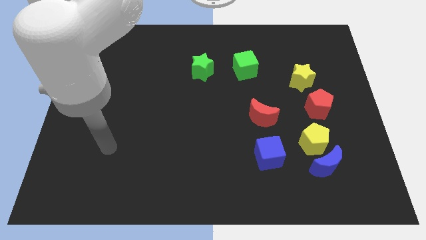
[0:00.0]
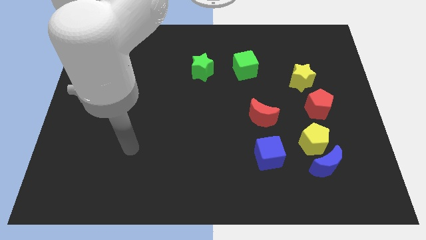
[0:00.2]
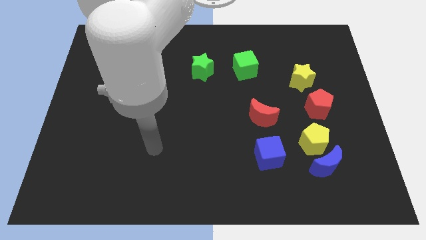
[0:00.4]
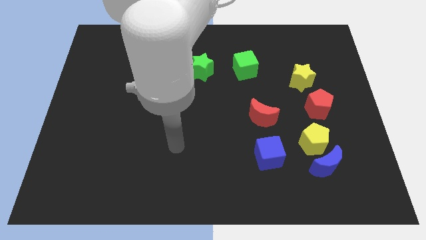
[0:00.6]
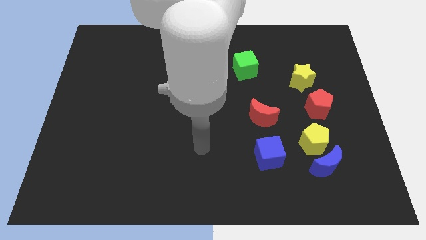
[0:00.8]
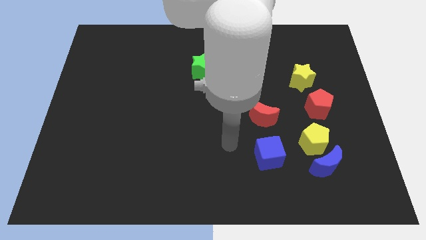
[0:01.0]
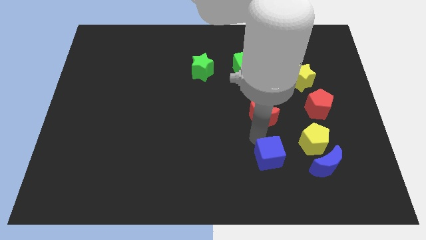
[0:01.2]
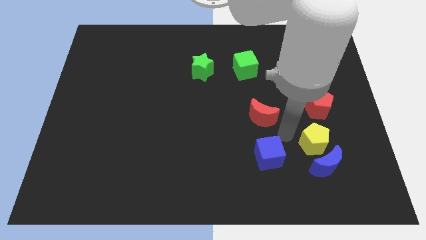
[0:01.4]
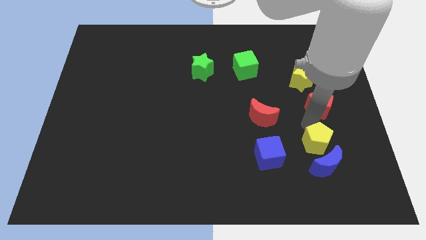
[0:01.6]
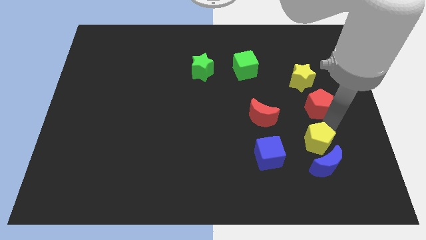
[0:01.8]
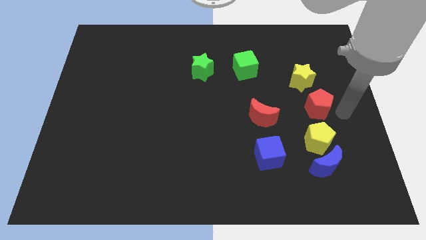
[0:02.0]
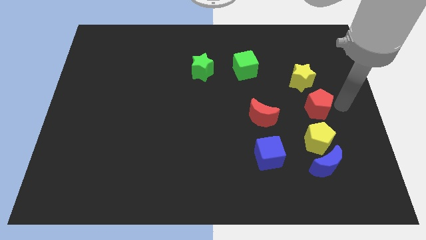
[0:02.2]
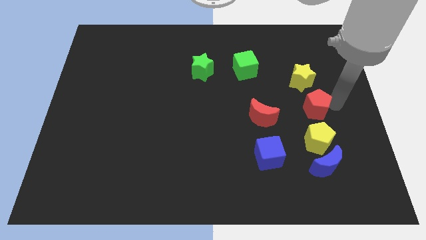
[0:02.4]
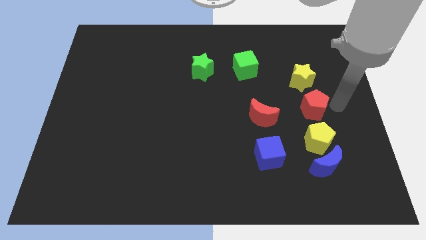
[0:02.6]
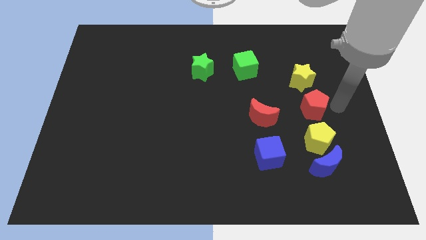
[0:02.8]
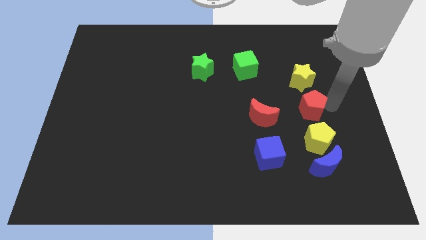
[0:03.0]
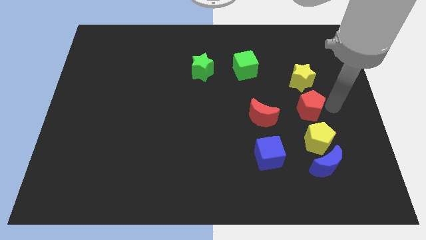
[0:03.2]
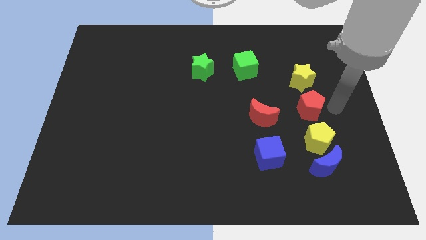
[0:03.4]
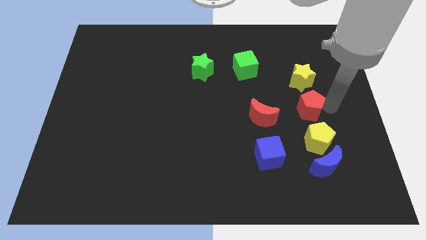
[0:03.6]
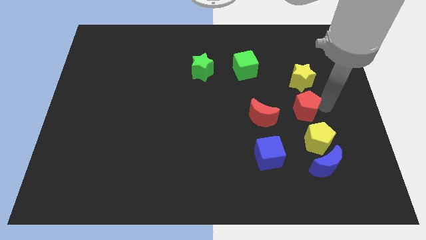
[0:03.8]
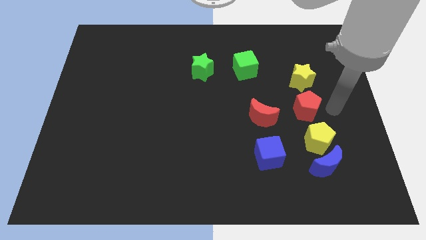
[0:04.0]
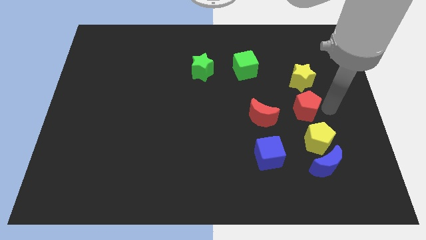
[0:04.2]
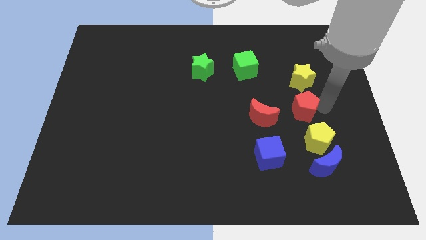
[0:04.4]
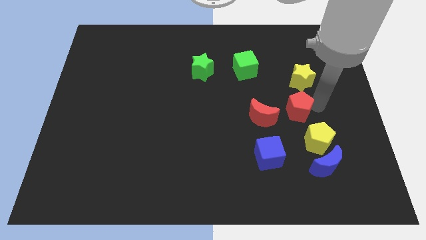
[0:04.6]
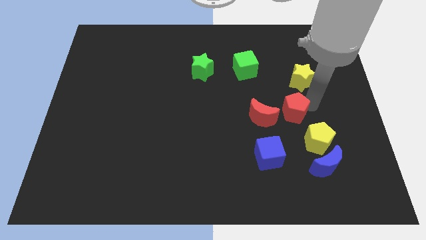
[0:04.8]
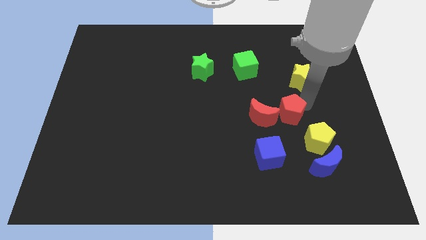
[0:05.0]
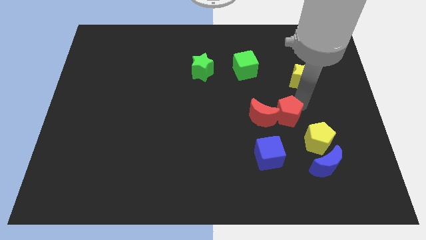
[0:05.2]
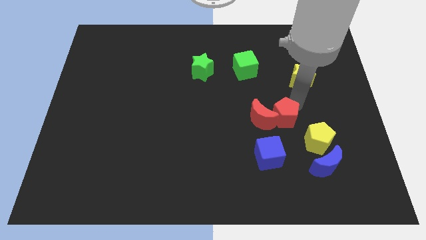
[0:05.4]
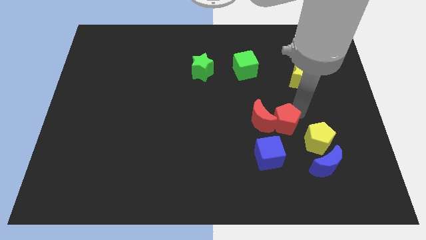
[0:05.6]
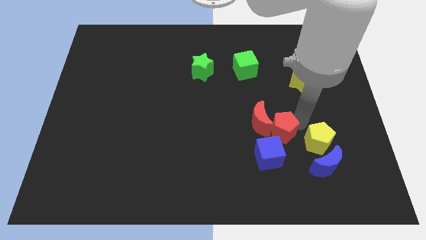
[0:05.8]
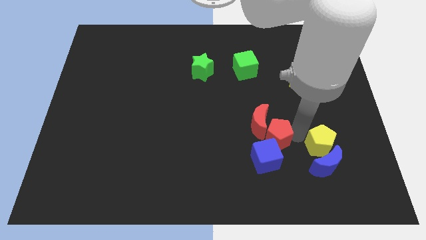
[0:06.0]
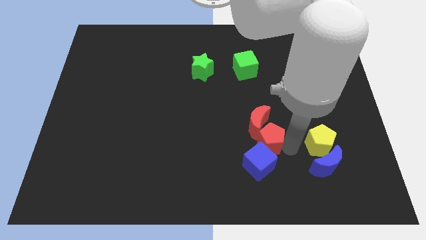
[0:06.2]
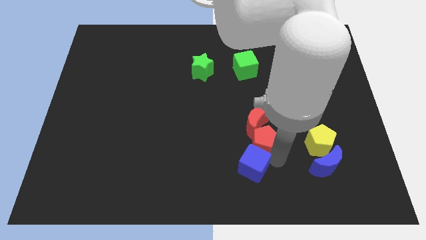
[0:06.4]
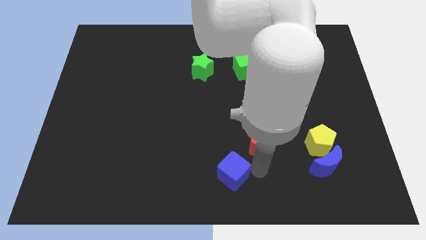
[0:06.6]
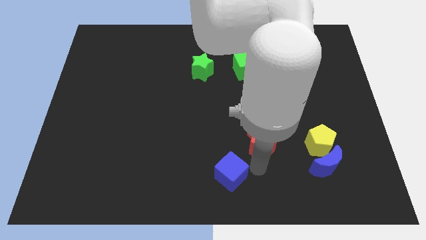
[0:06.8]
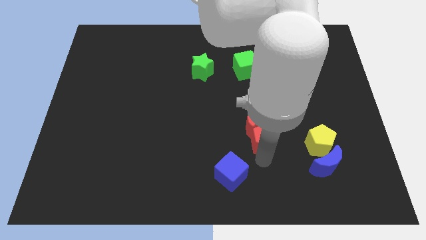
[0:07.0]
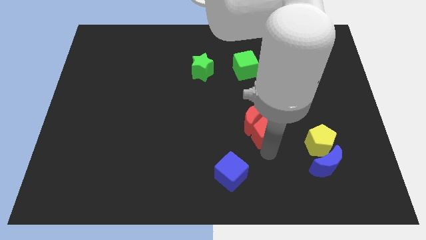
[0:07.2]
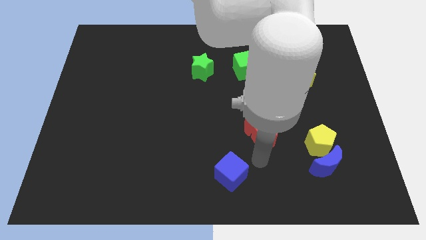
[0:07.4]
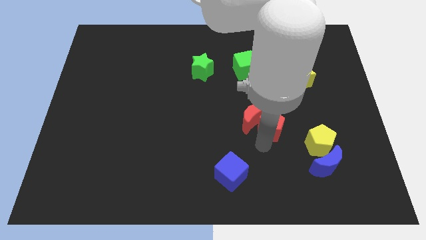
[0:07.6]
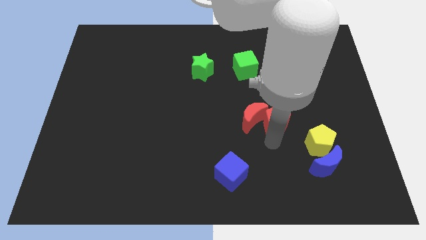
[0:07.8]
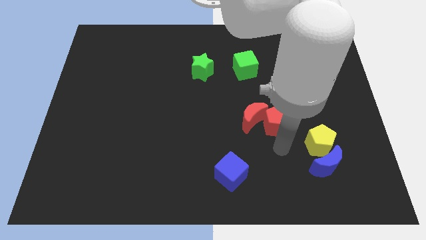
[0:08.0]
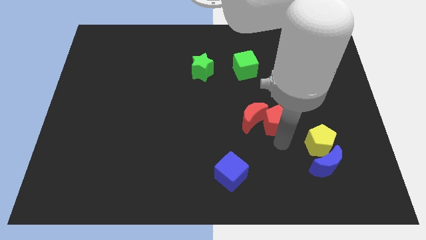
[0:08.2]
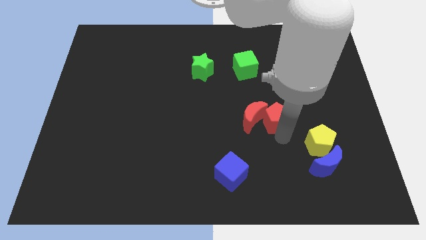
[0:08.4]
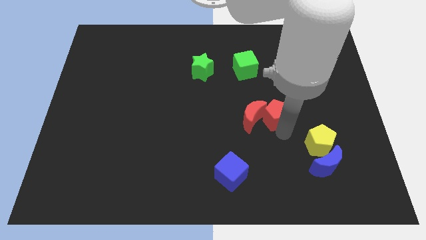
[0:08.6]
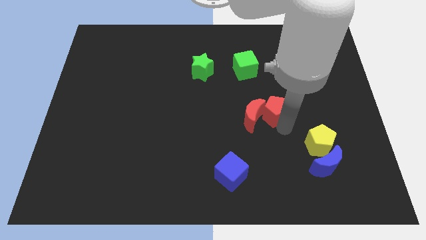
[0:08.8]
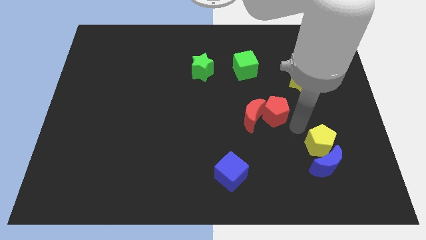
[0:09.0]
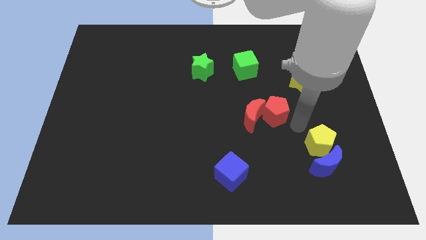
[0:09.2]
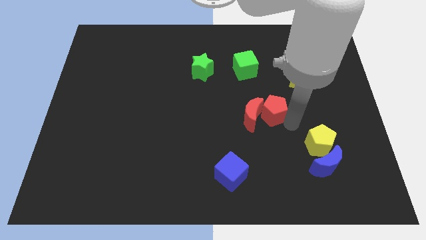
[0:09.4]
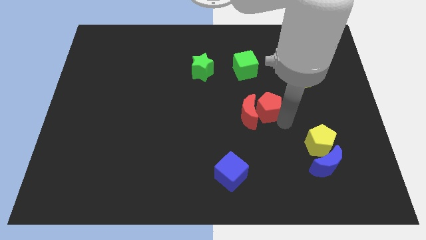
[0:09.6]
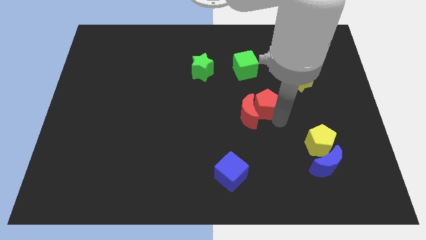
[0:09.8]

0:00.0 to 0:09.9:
push the red pentagon to the center

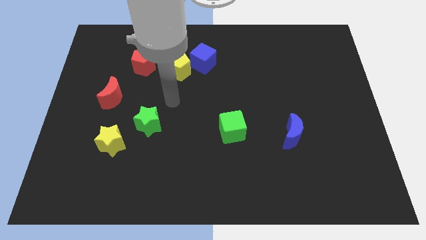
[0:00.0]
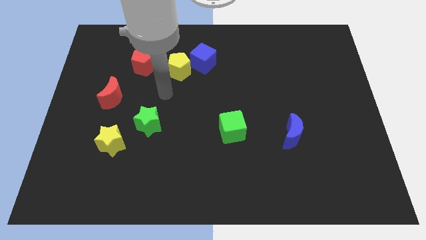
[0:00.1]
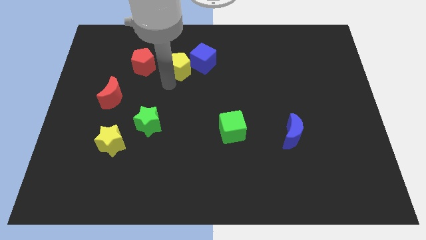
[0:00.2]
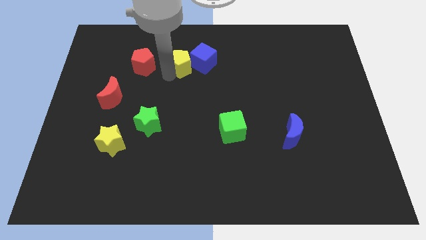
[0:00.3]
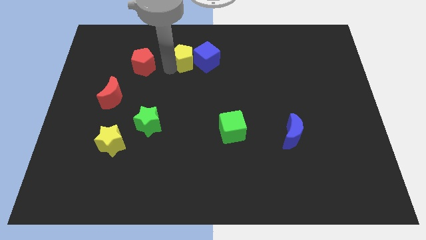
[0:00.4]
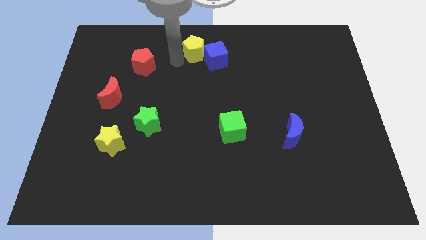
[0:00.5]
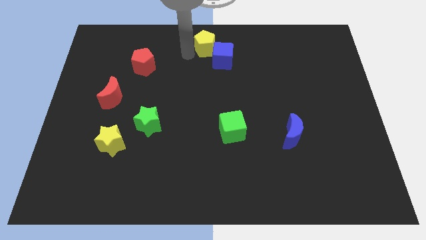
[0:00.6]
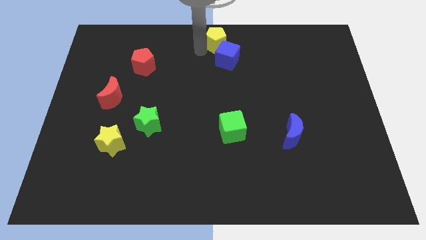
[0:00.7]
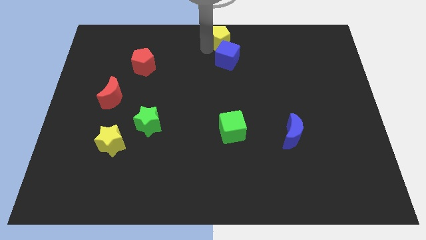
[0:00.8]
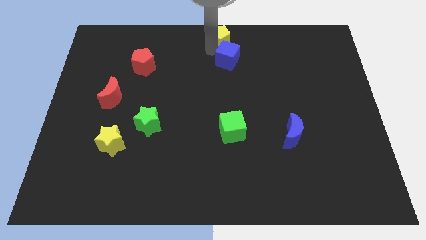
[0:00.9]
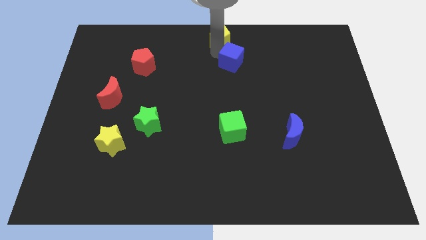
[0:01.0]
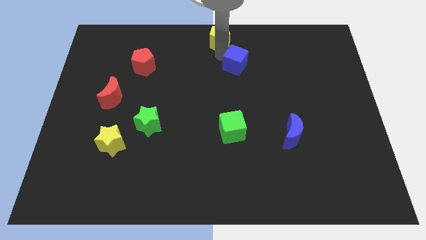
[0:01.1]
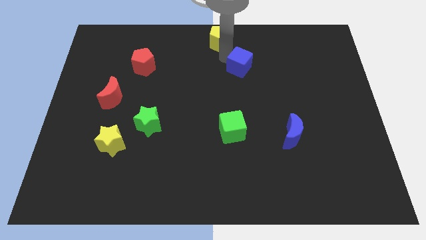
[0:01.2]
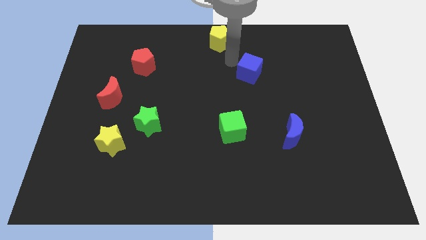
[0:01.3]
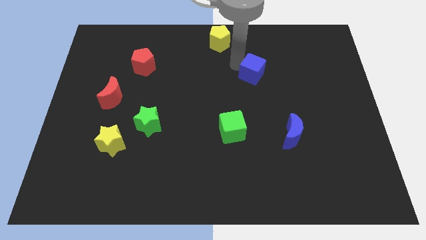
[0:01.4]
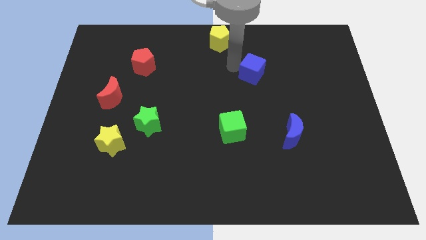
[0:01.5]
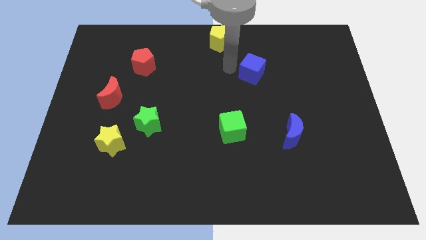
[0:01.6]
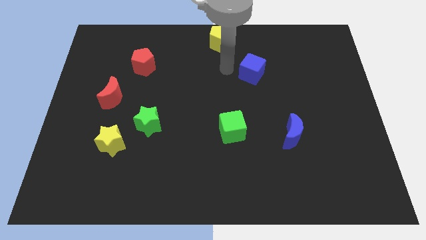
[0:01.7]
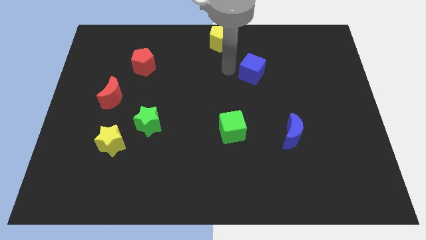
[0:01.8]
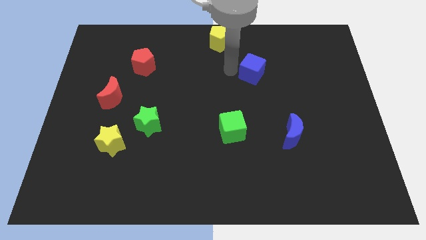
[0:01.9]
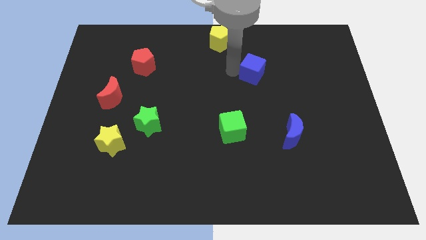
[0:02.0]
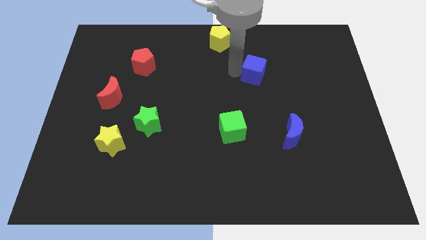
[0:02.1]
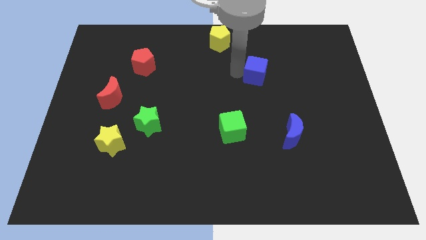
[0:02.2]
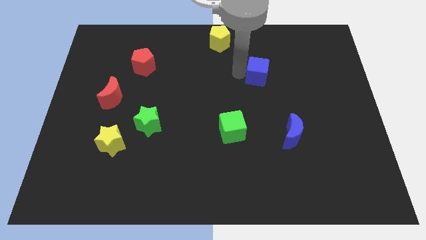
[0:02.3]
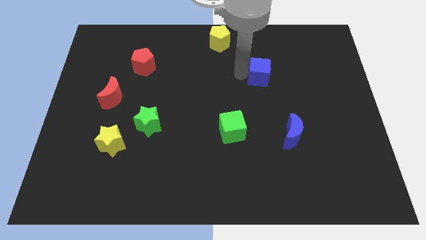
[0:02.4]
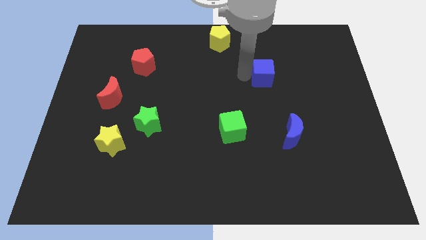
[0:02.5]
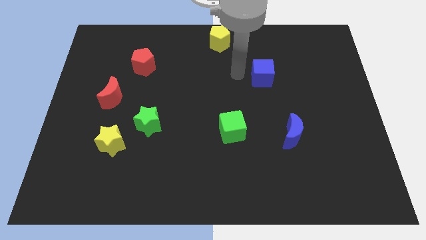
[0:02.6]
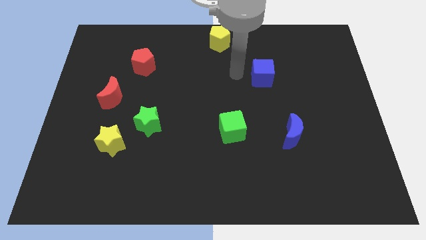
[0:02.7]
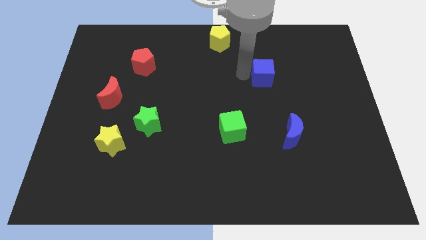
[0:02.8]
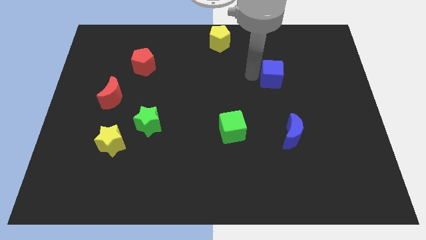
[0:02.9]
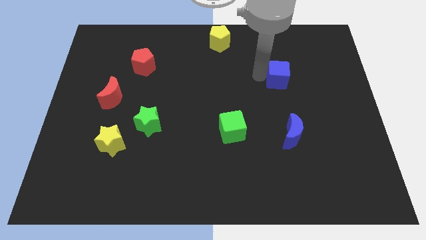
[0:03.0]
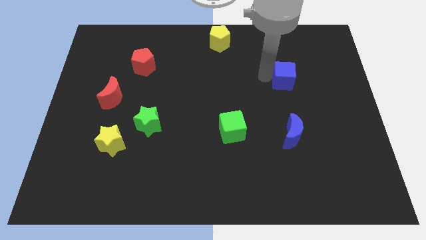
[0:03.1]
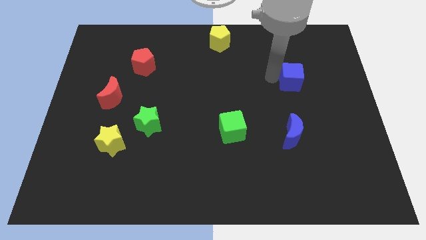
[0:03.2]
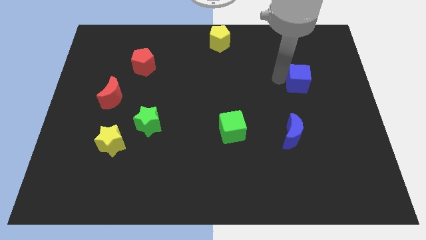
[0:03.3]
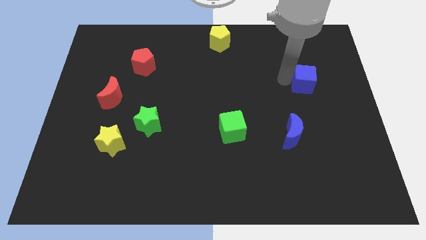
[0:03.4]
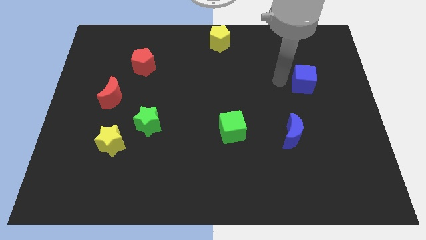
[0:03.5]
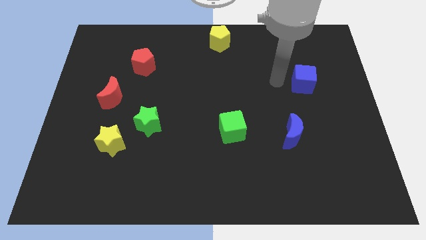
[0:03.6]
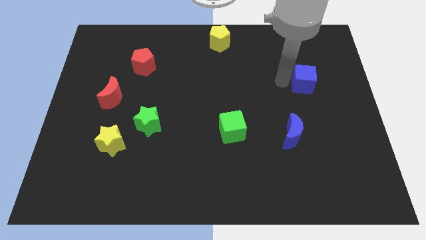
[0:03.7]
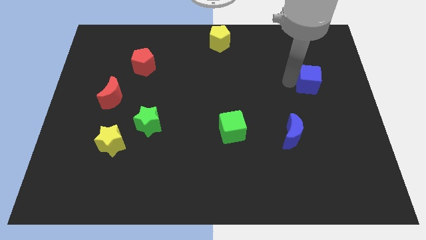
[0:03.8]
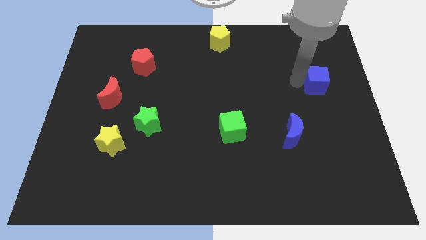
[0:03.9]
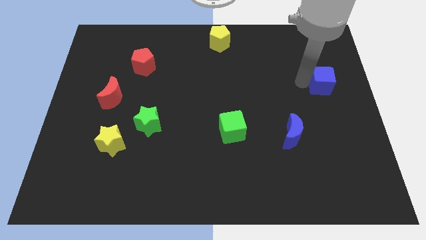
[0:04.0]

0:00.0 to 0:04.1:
slide the blue cube to the right side of the board
